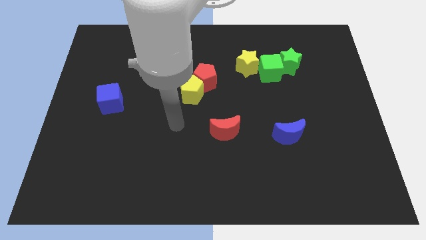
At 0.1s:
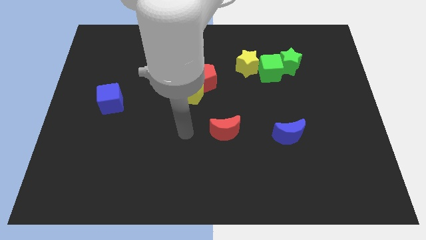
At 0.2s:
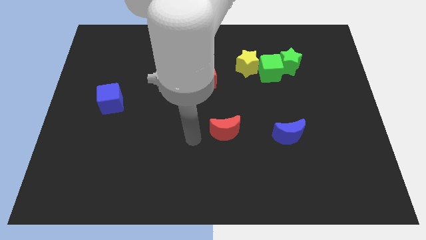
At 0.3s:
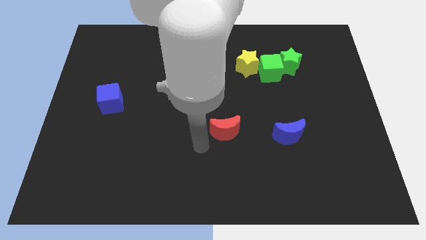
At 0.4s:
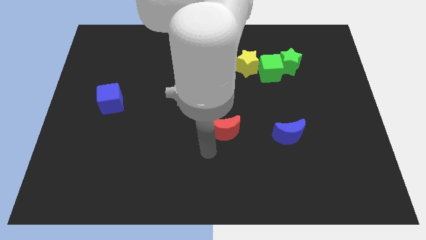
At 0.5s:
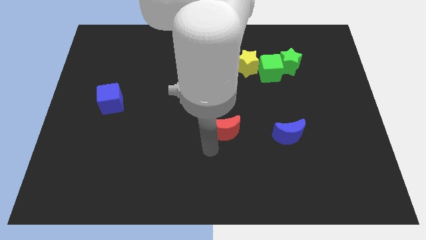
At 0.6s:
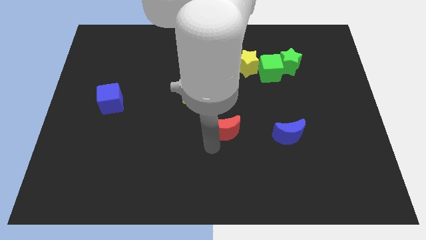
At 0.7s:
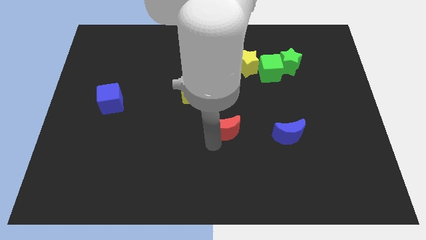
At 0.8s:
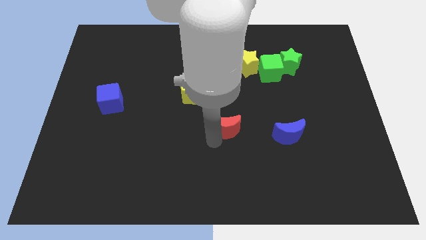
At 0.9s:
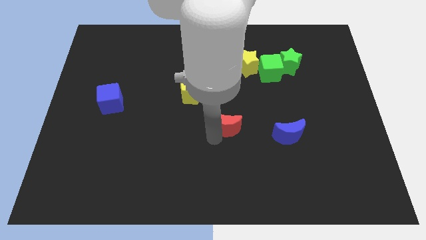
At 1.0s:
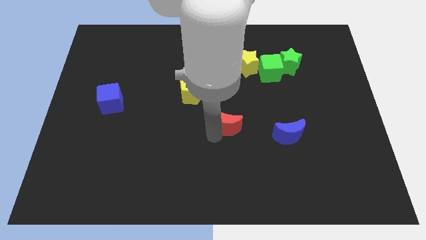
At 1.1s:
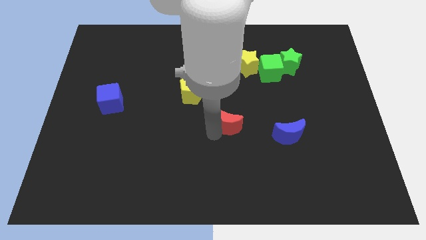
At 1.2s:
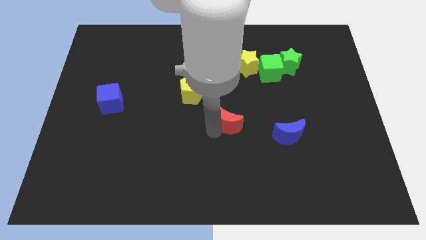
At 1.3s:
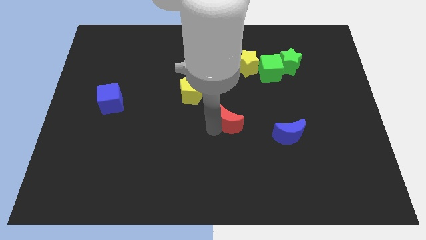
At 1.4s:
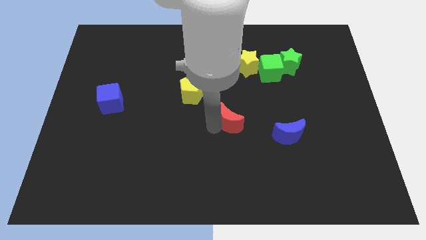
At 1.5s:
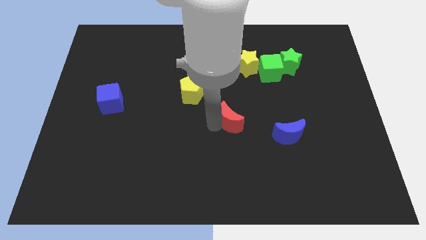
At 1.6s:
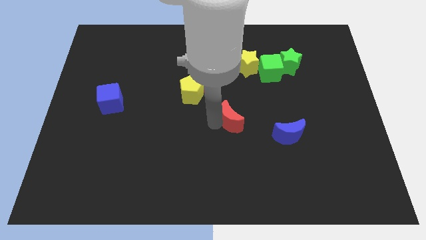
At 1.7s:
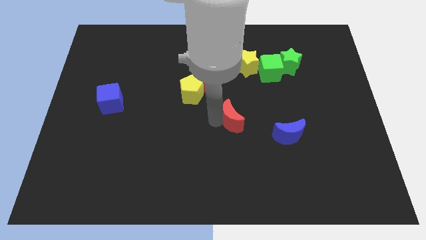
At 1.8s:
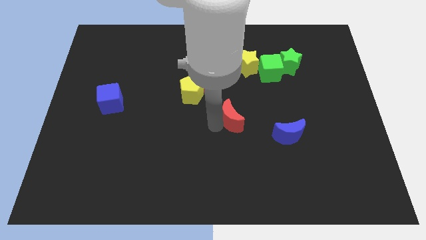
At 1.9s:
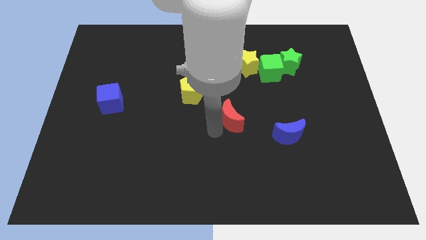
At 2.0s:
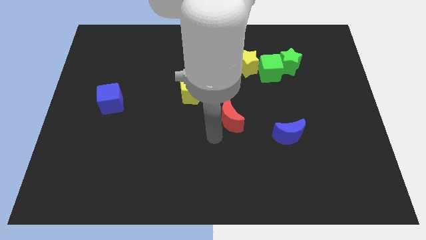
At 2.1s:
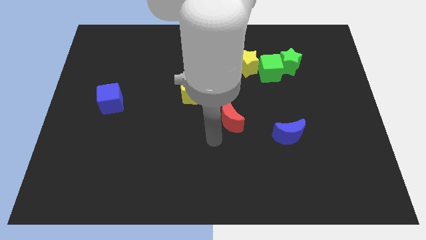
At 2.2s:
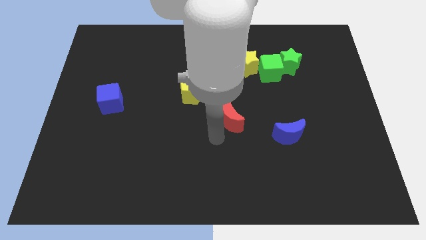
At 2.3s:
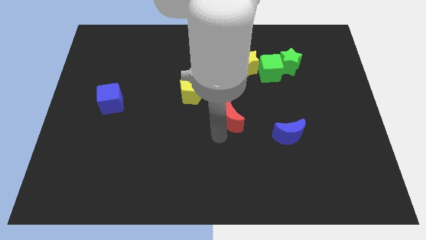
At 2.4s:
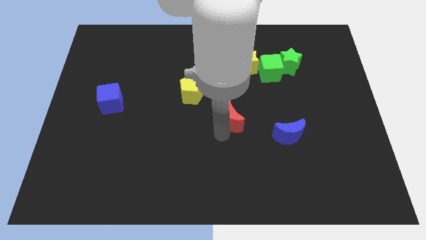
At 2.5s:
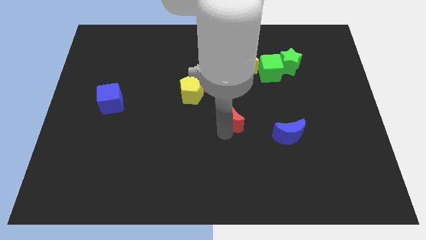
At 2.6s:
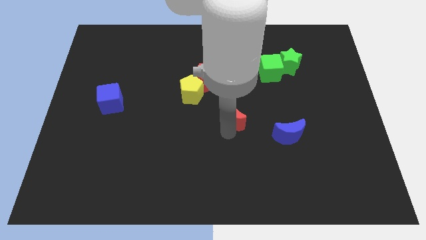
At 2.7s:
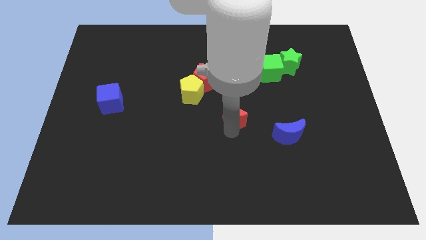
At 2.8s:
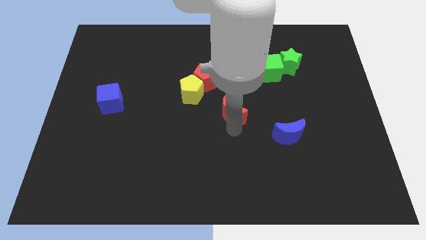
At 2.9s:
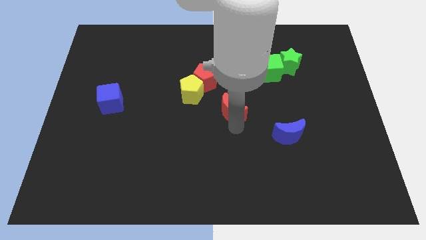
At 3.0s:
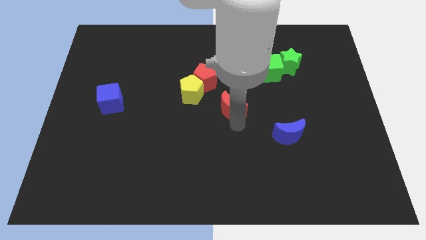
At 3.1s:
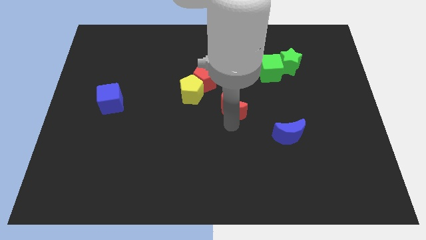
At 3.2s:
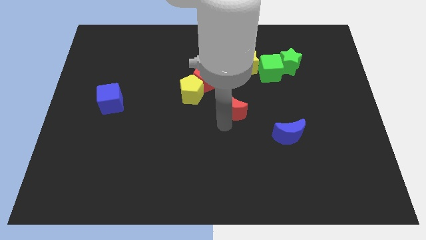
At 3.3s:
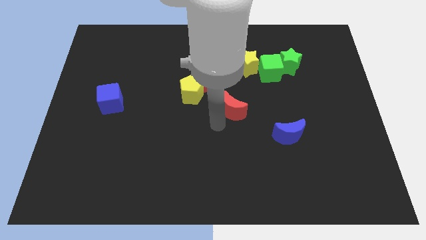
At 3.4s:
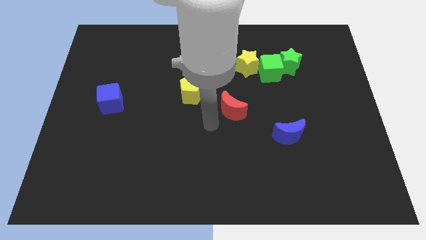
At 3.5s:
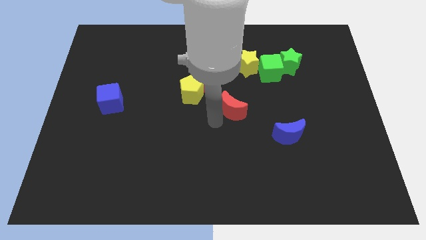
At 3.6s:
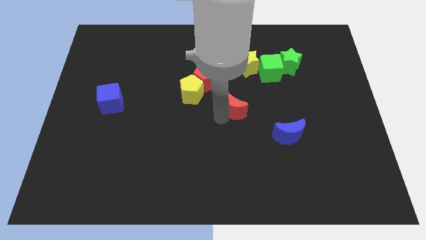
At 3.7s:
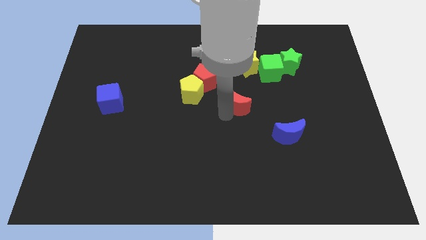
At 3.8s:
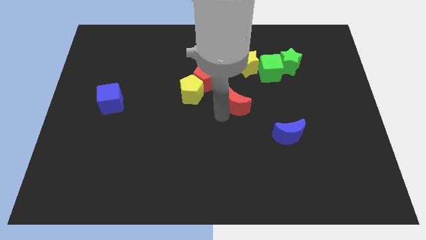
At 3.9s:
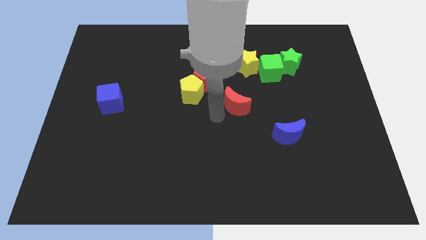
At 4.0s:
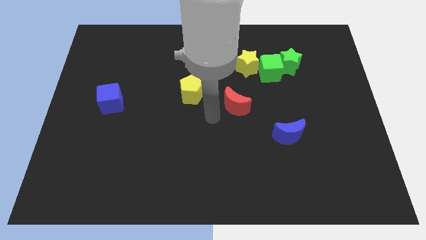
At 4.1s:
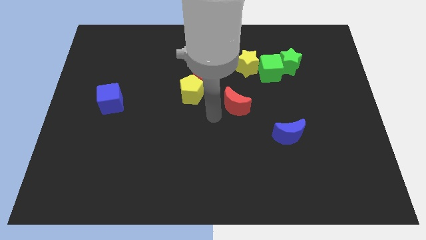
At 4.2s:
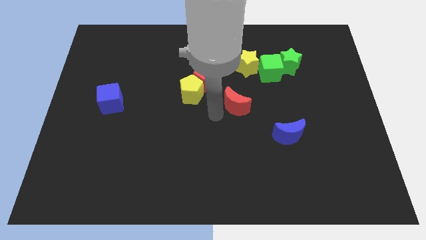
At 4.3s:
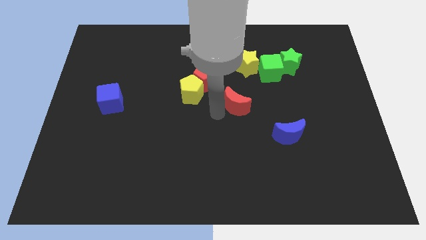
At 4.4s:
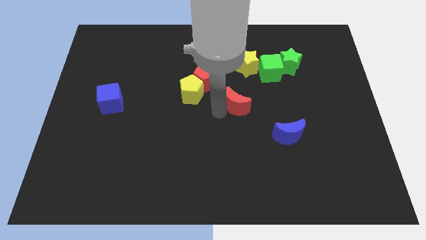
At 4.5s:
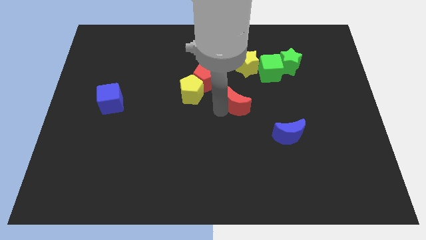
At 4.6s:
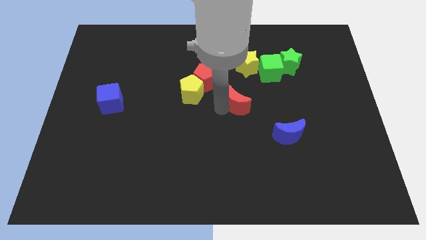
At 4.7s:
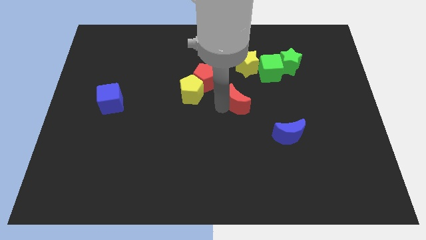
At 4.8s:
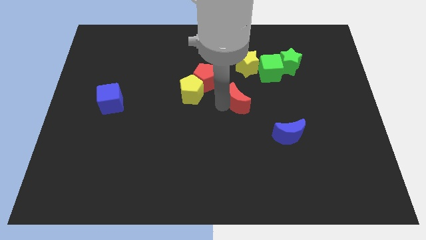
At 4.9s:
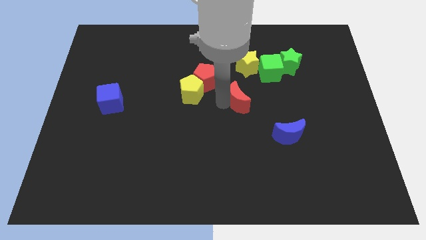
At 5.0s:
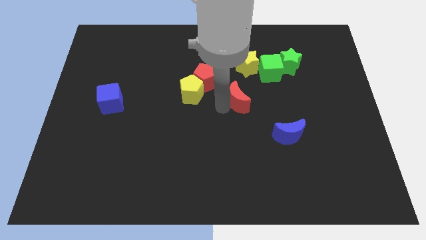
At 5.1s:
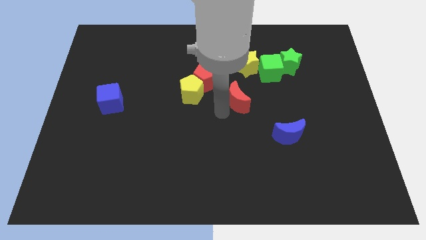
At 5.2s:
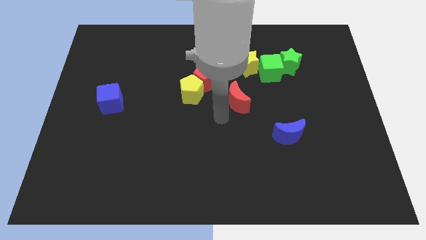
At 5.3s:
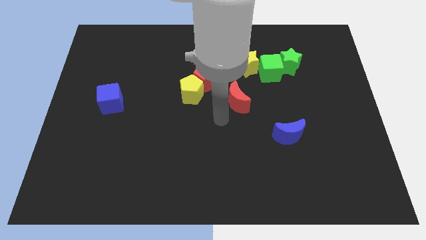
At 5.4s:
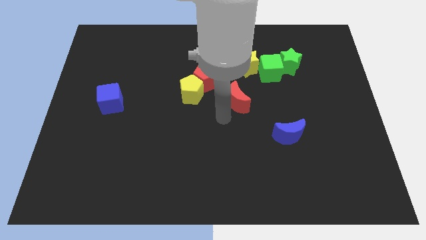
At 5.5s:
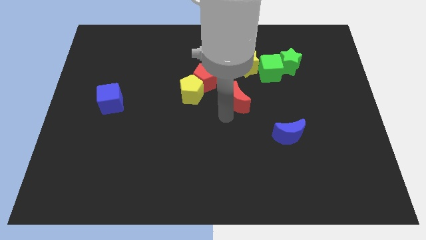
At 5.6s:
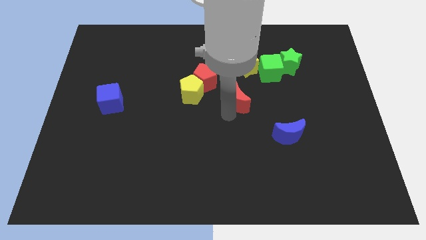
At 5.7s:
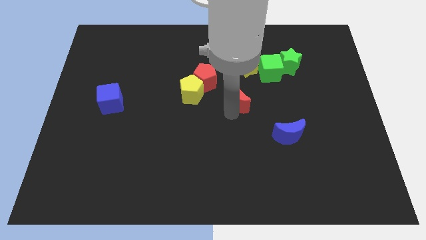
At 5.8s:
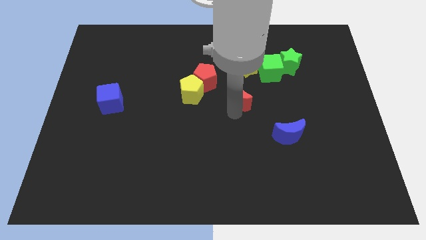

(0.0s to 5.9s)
slide the red moon to the bottom left of the green cube

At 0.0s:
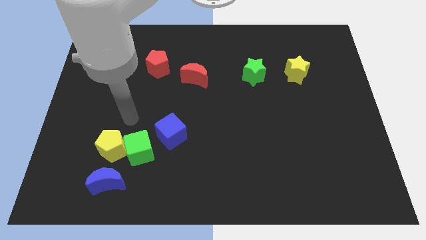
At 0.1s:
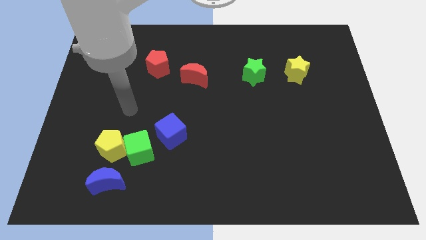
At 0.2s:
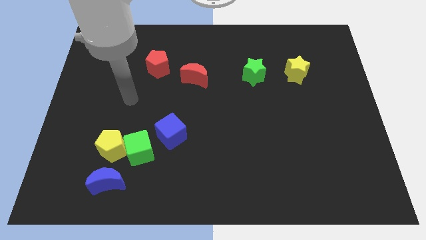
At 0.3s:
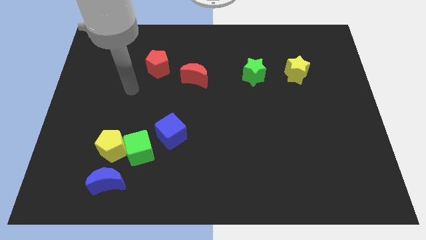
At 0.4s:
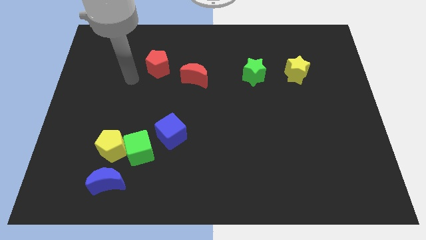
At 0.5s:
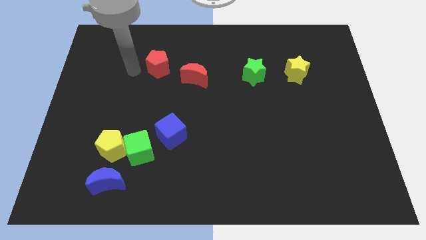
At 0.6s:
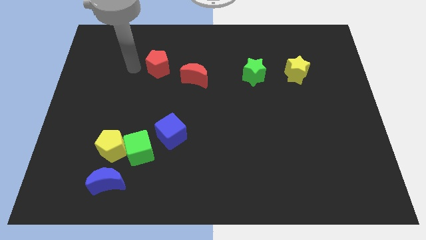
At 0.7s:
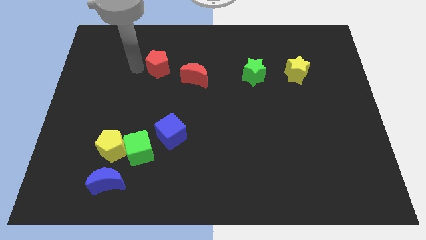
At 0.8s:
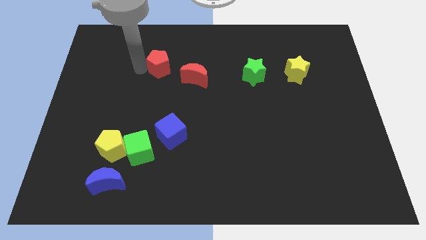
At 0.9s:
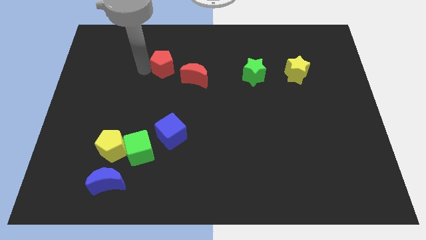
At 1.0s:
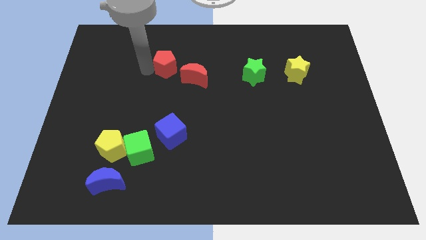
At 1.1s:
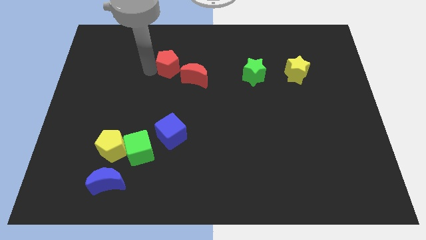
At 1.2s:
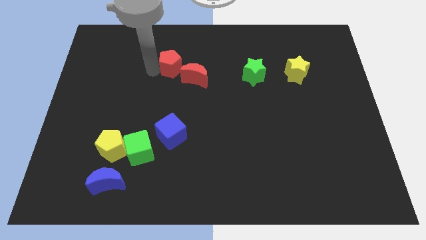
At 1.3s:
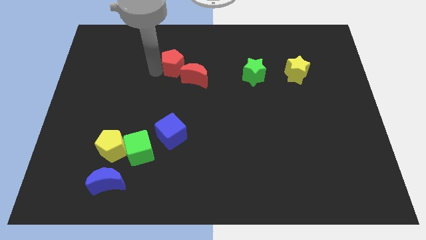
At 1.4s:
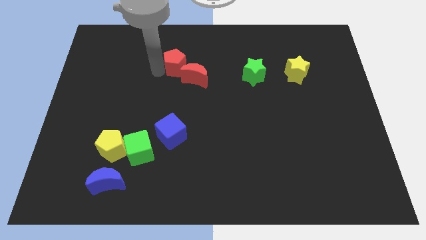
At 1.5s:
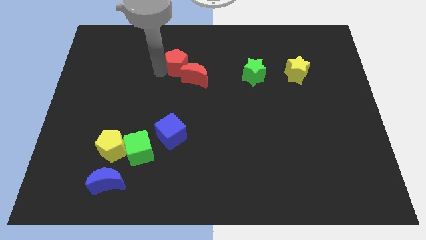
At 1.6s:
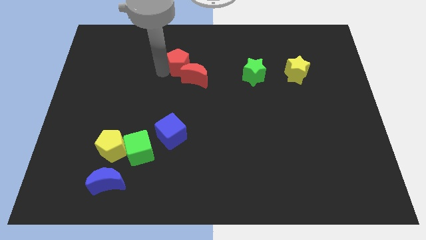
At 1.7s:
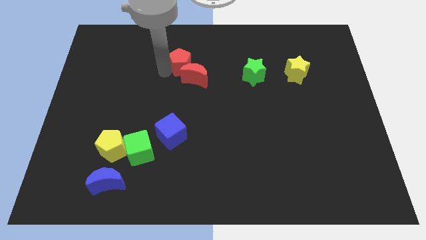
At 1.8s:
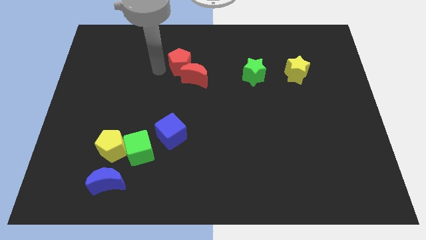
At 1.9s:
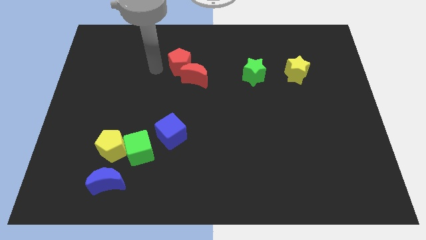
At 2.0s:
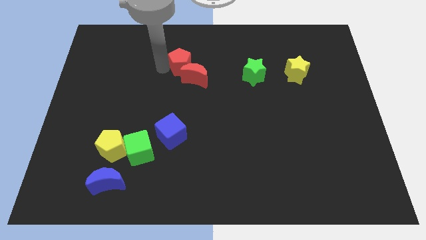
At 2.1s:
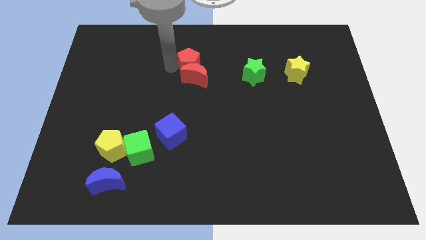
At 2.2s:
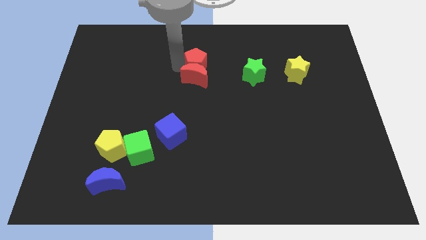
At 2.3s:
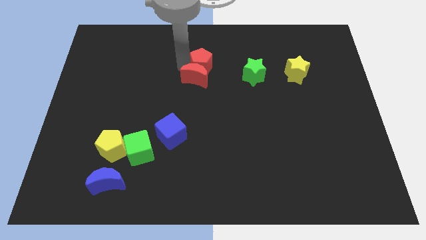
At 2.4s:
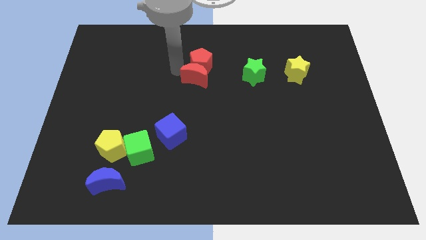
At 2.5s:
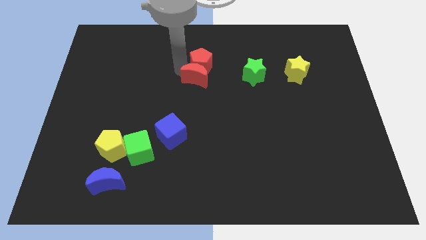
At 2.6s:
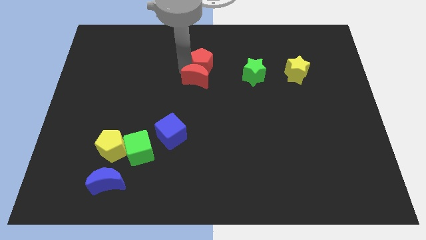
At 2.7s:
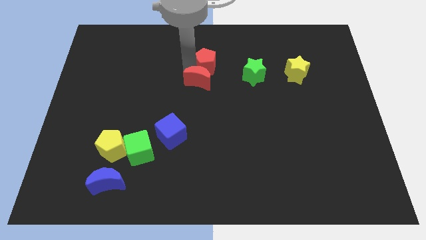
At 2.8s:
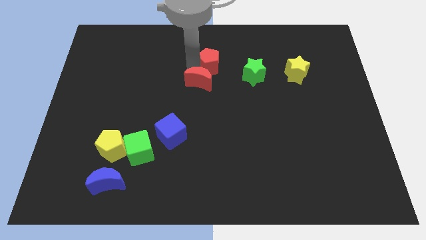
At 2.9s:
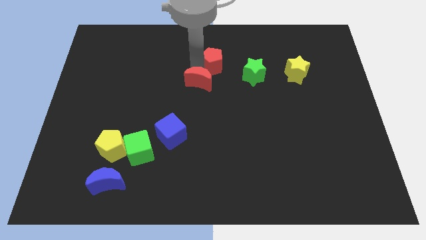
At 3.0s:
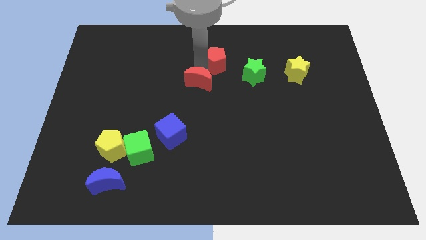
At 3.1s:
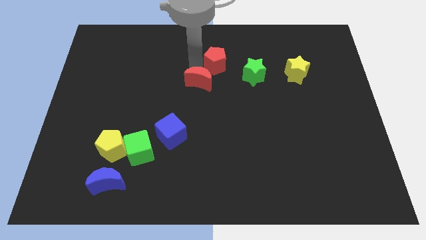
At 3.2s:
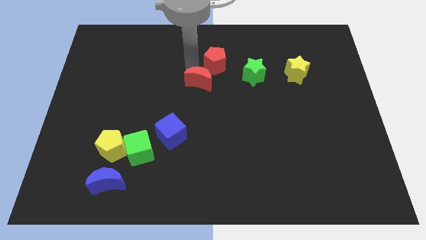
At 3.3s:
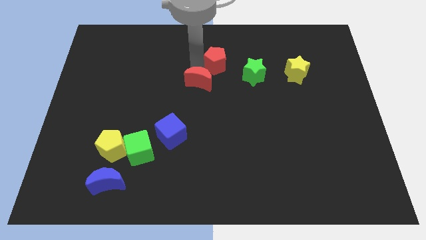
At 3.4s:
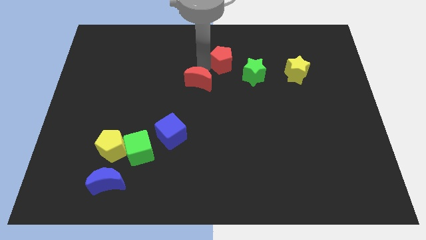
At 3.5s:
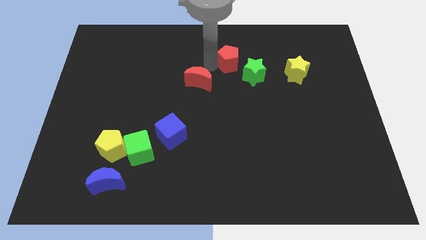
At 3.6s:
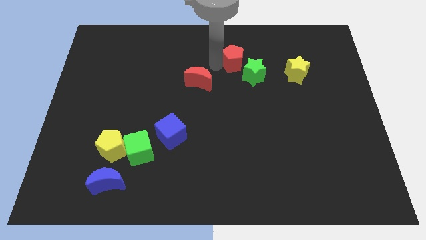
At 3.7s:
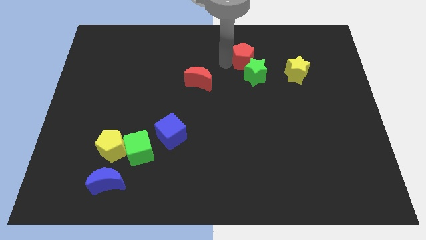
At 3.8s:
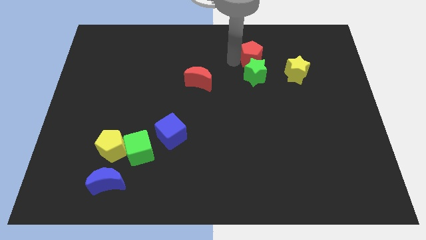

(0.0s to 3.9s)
move the red pentagon to the top right side of the green star
